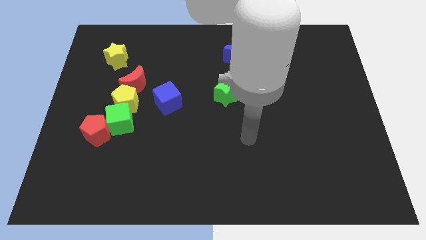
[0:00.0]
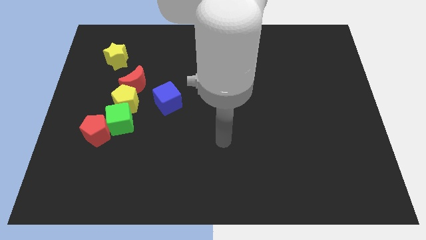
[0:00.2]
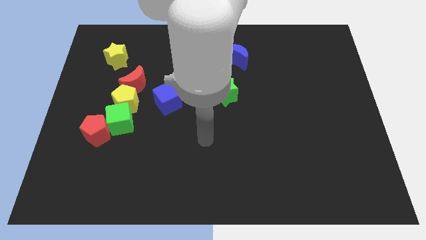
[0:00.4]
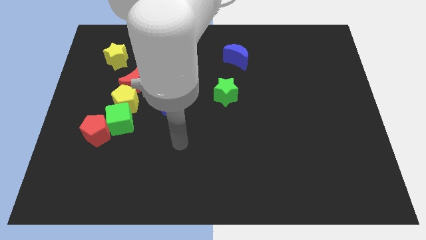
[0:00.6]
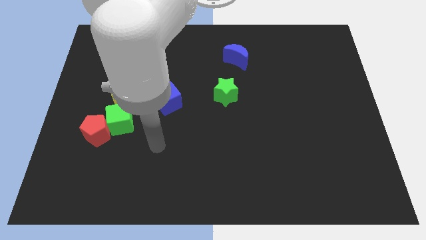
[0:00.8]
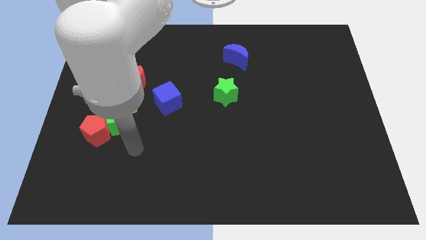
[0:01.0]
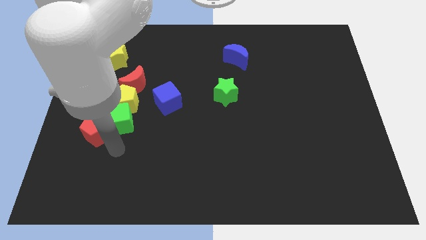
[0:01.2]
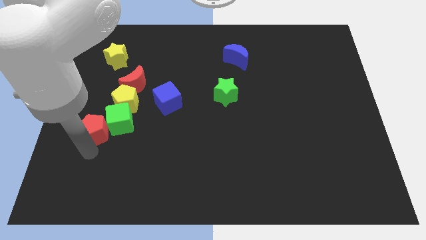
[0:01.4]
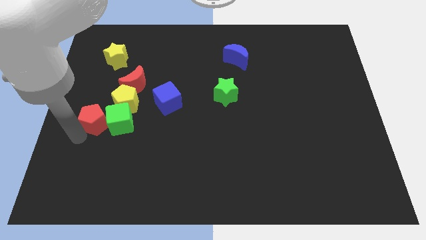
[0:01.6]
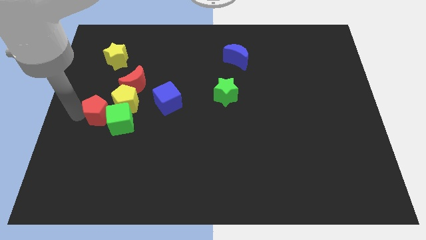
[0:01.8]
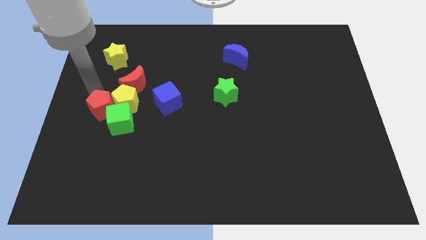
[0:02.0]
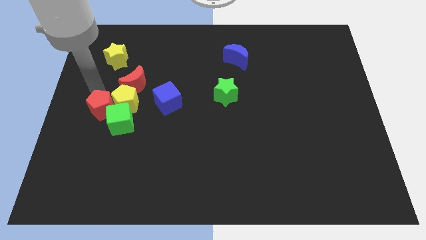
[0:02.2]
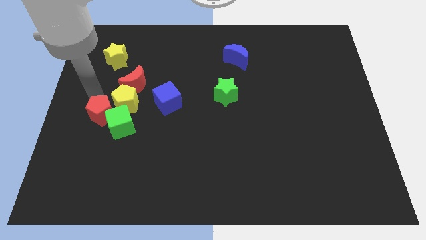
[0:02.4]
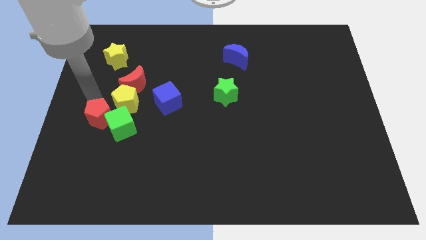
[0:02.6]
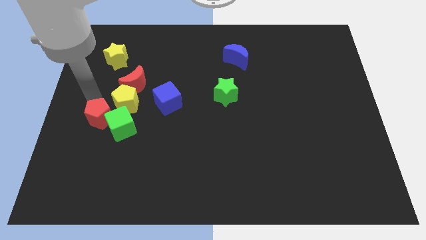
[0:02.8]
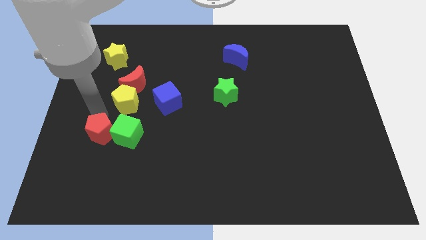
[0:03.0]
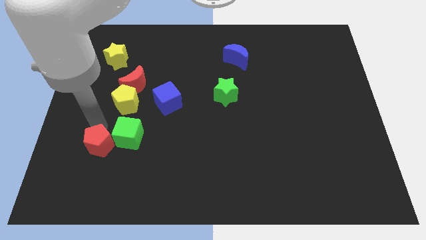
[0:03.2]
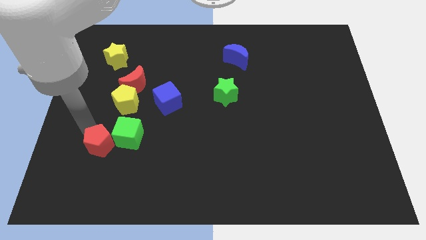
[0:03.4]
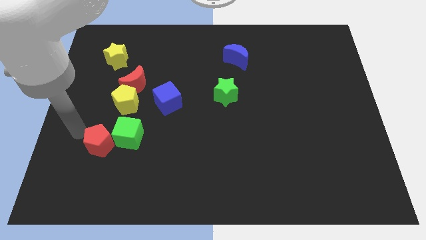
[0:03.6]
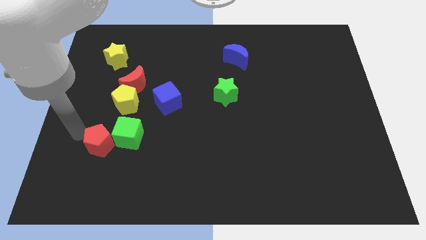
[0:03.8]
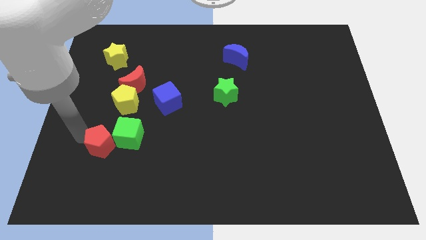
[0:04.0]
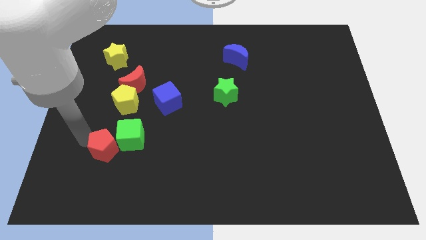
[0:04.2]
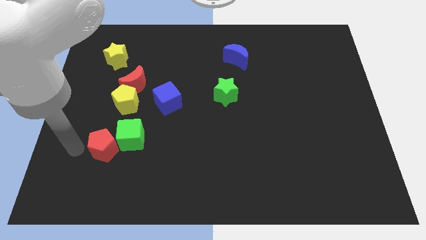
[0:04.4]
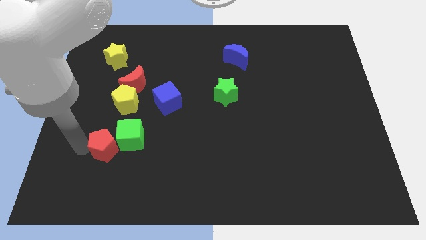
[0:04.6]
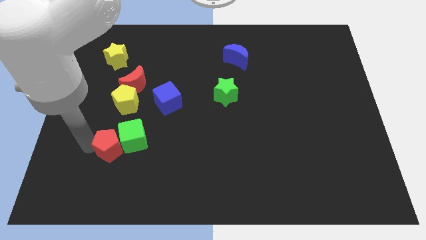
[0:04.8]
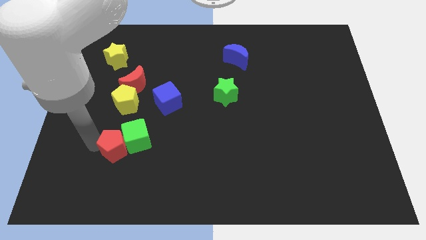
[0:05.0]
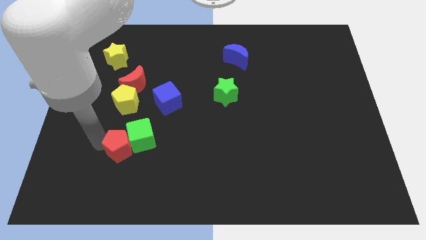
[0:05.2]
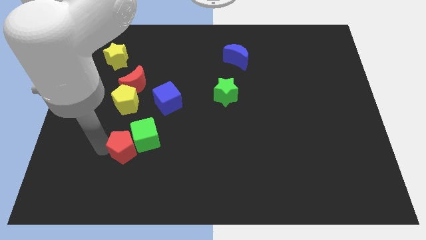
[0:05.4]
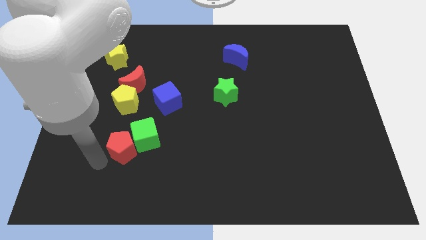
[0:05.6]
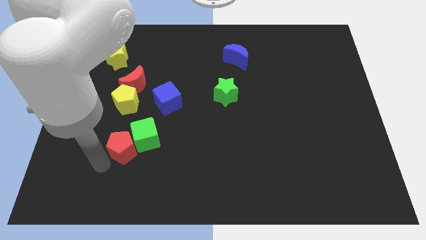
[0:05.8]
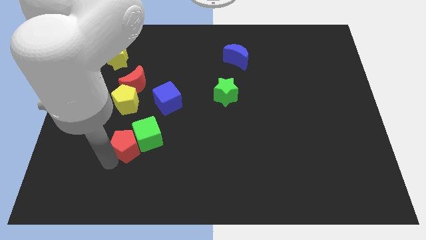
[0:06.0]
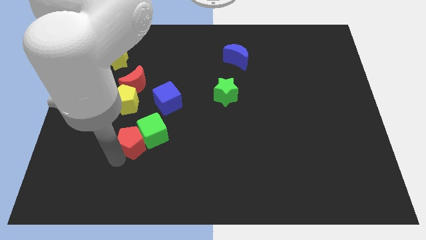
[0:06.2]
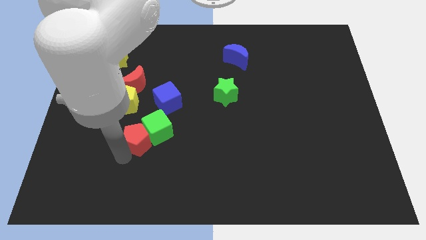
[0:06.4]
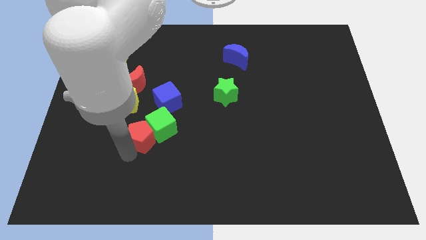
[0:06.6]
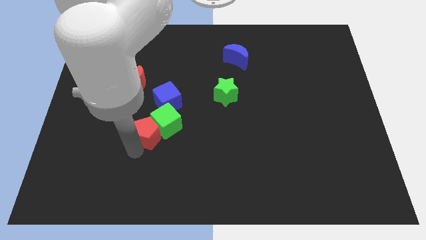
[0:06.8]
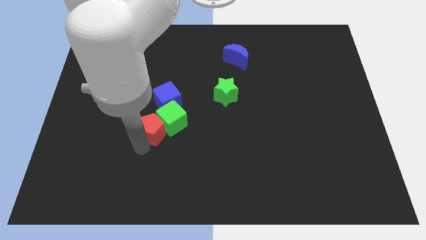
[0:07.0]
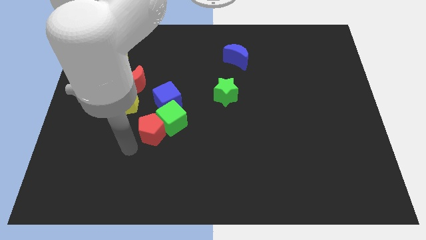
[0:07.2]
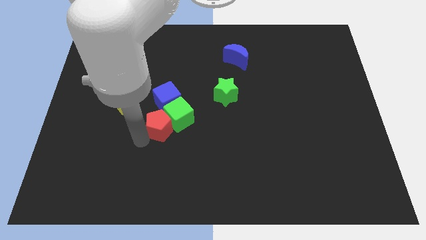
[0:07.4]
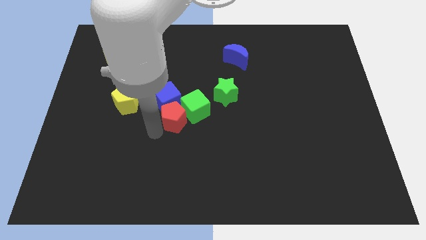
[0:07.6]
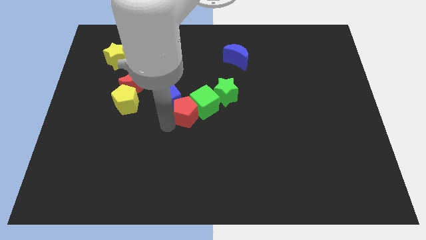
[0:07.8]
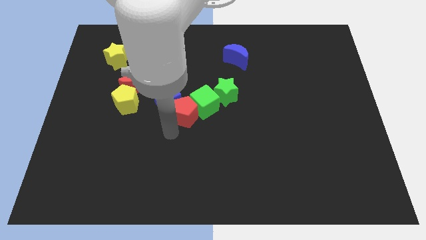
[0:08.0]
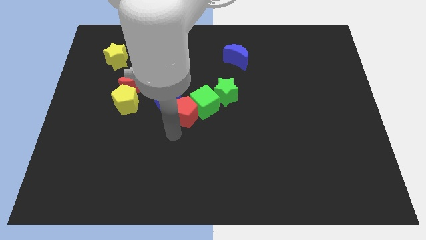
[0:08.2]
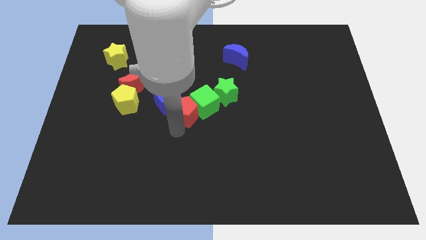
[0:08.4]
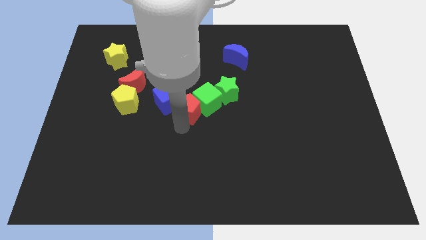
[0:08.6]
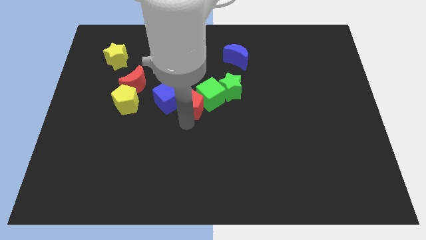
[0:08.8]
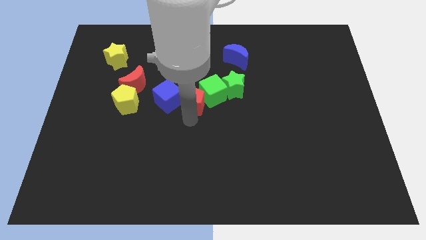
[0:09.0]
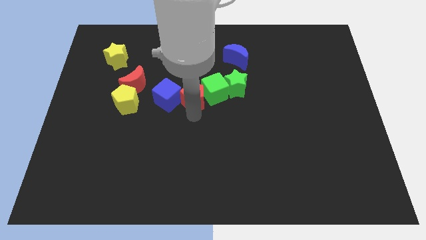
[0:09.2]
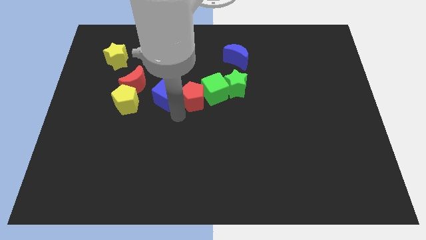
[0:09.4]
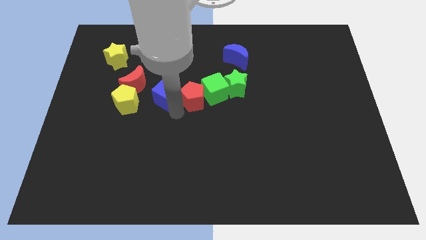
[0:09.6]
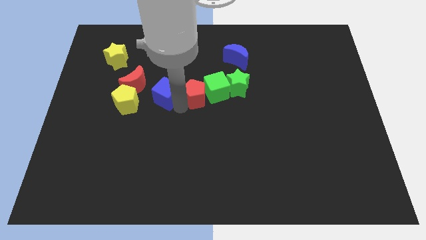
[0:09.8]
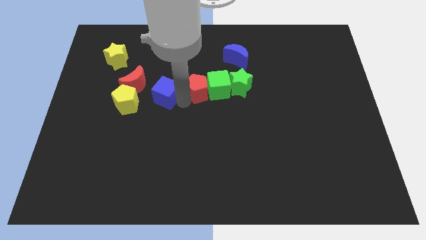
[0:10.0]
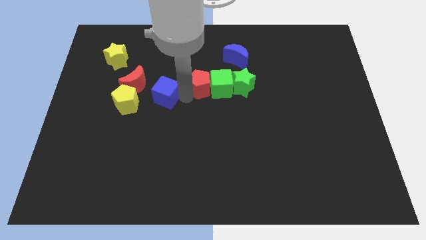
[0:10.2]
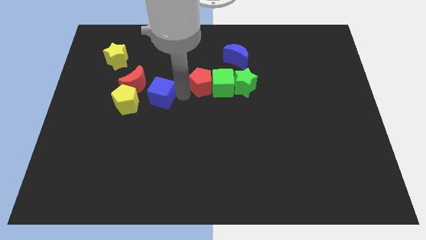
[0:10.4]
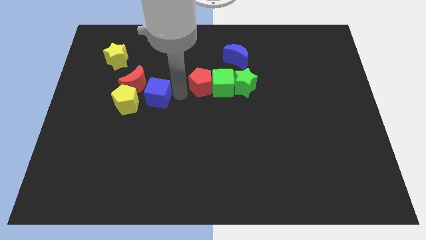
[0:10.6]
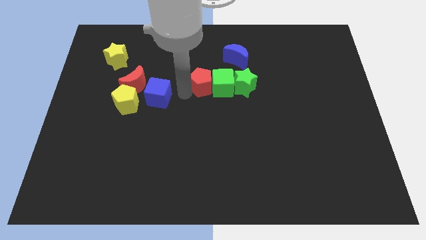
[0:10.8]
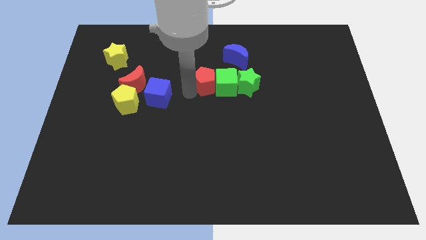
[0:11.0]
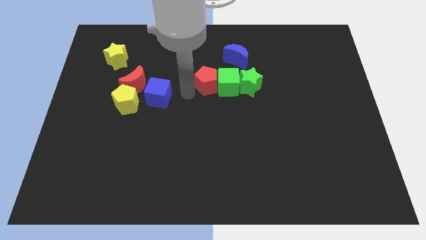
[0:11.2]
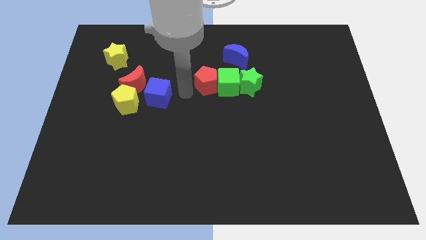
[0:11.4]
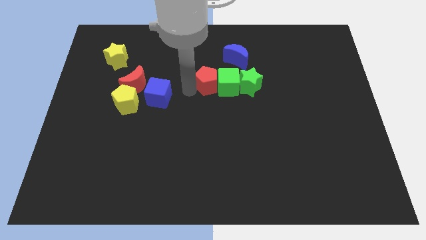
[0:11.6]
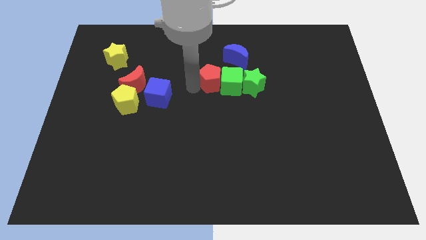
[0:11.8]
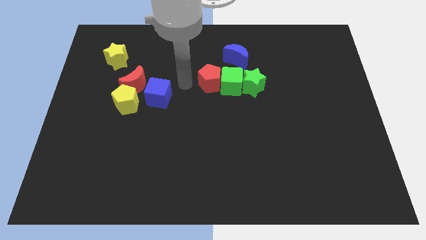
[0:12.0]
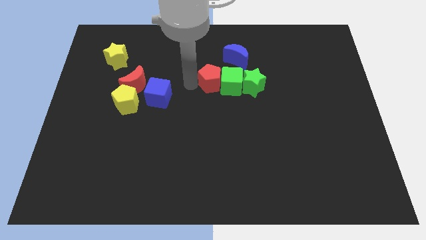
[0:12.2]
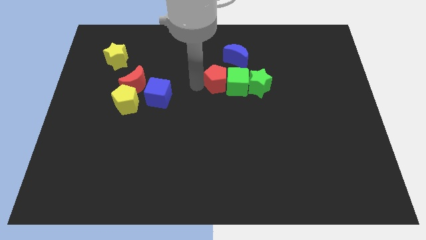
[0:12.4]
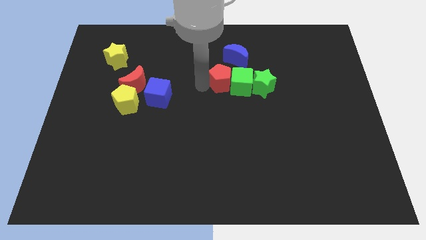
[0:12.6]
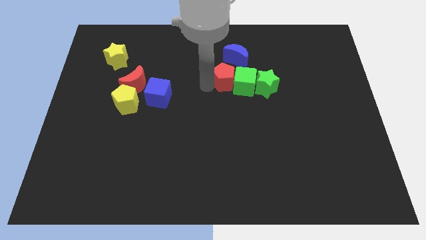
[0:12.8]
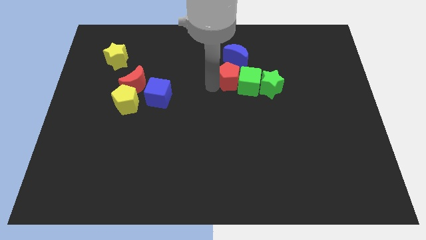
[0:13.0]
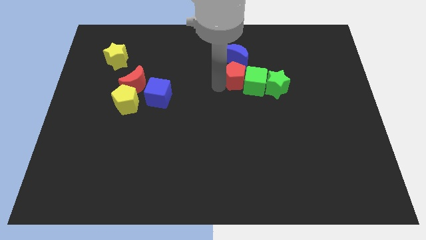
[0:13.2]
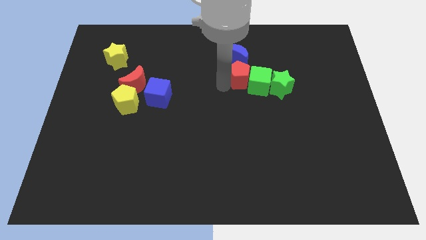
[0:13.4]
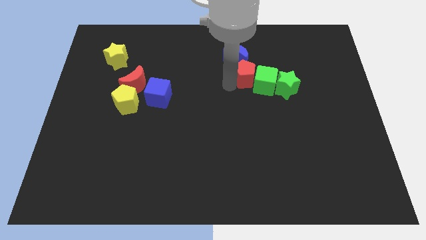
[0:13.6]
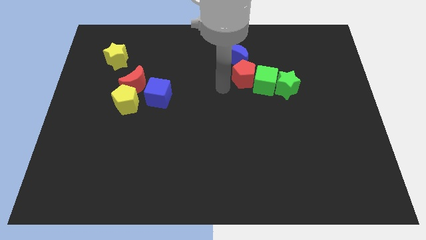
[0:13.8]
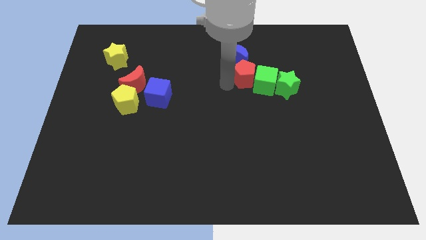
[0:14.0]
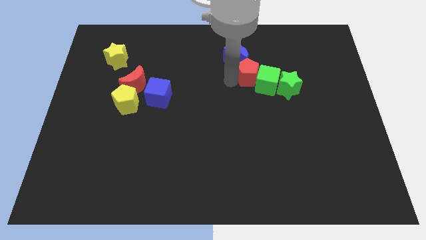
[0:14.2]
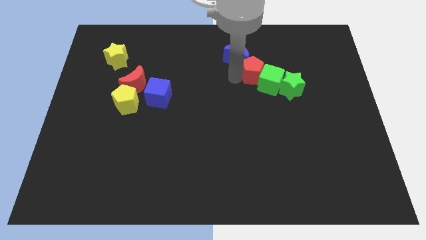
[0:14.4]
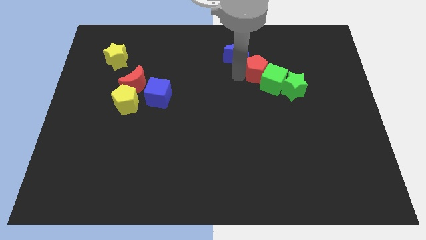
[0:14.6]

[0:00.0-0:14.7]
slide the red pentagon just right of the blue moon

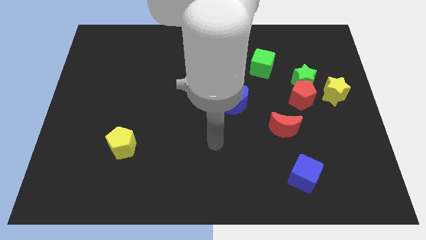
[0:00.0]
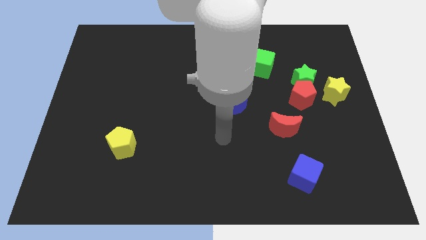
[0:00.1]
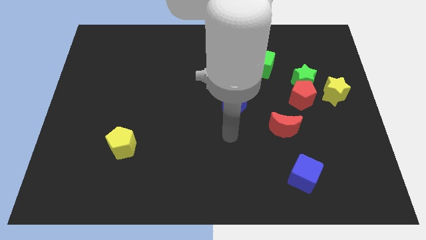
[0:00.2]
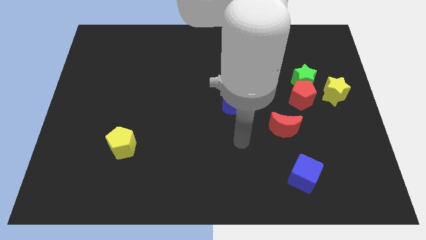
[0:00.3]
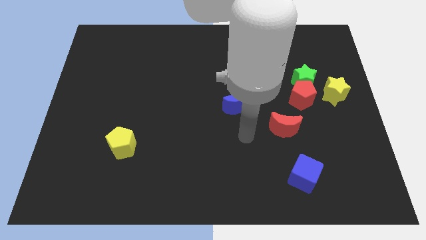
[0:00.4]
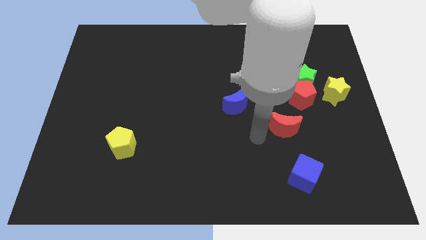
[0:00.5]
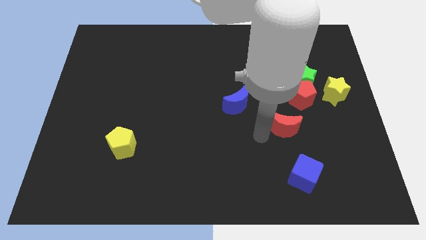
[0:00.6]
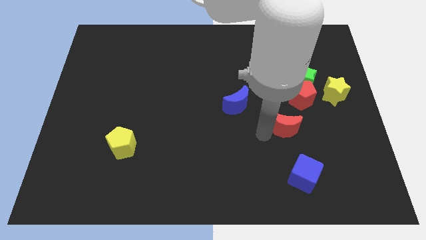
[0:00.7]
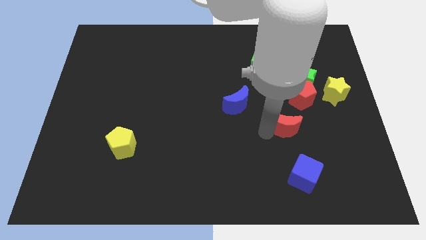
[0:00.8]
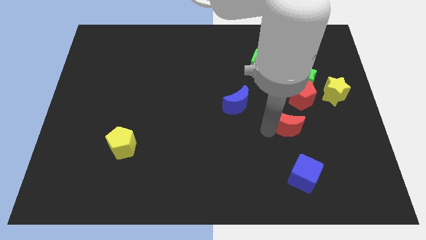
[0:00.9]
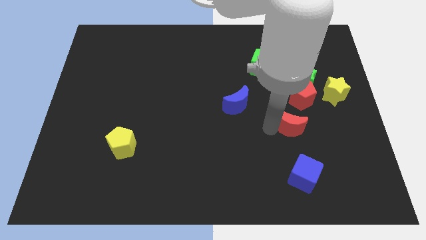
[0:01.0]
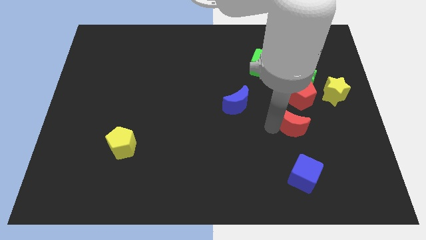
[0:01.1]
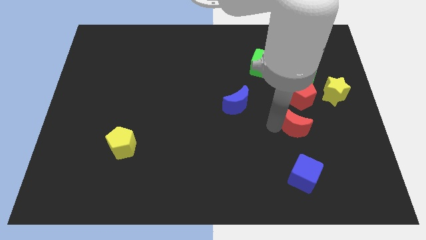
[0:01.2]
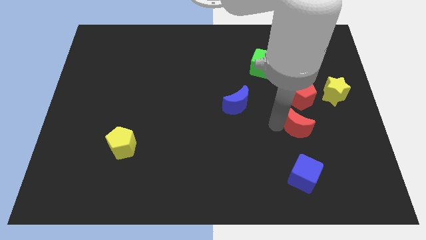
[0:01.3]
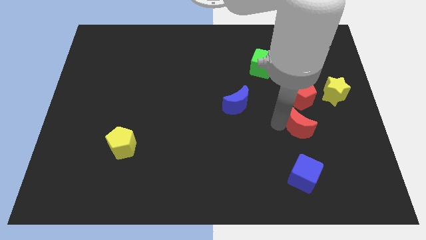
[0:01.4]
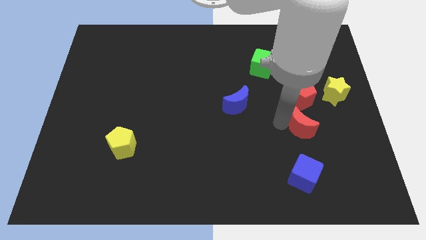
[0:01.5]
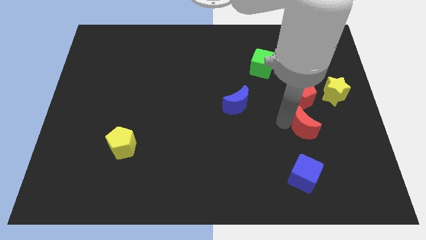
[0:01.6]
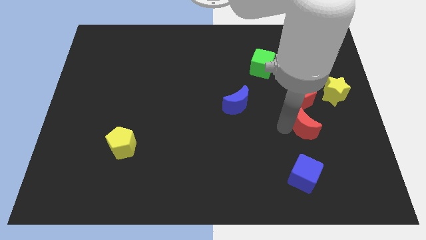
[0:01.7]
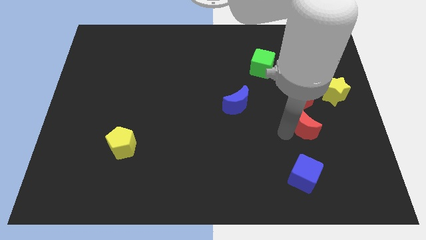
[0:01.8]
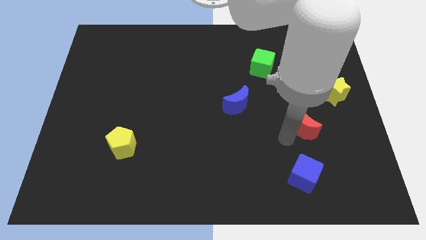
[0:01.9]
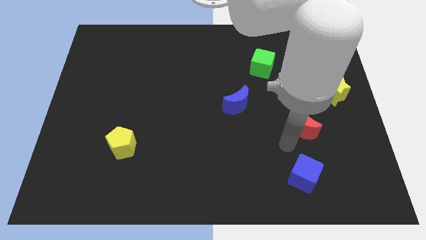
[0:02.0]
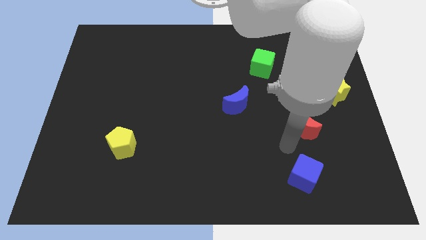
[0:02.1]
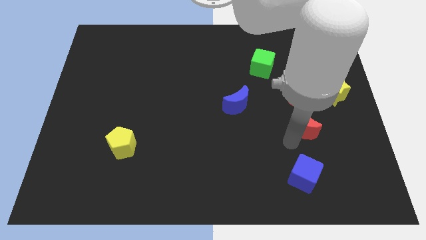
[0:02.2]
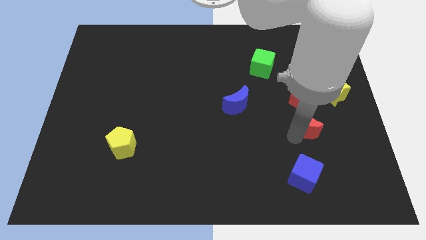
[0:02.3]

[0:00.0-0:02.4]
push the red moon diagonally down and to the left of the yellow star
